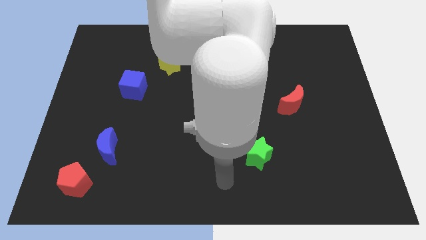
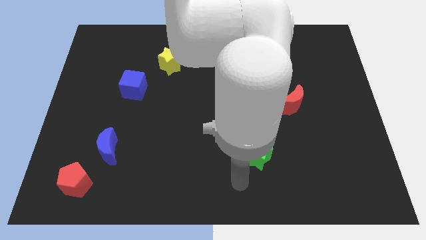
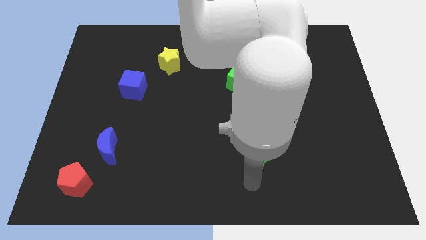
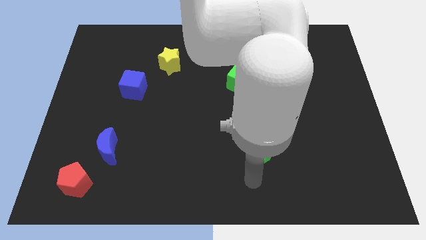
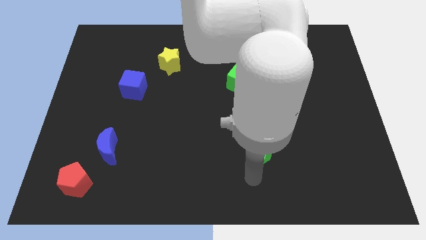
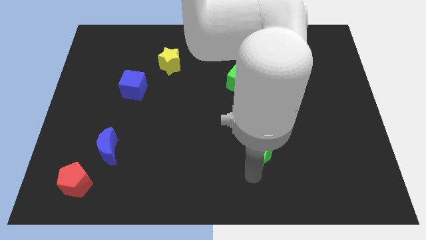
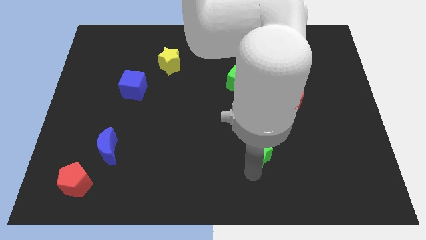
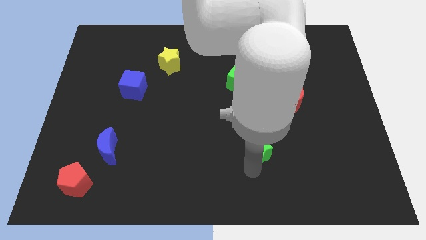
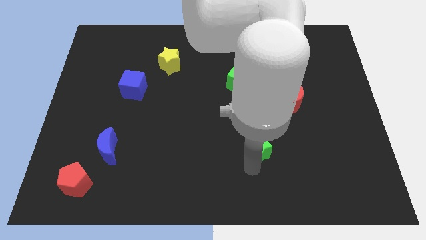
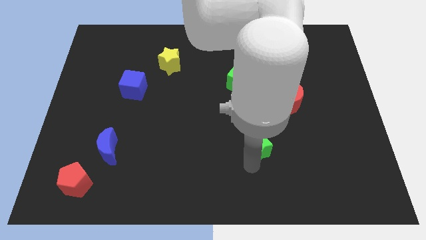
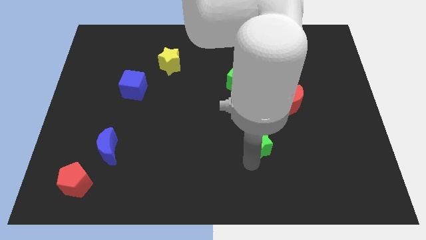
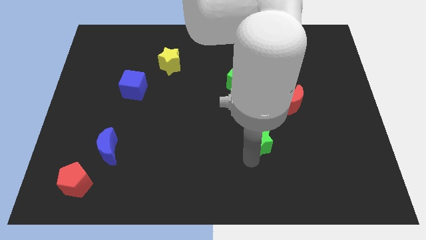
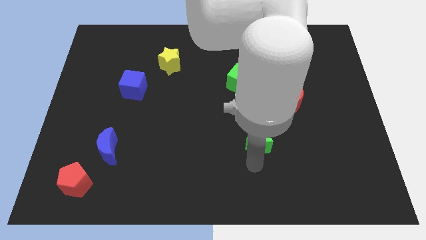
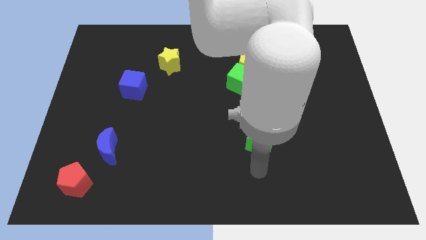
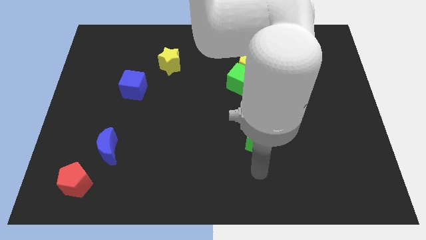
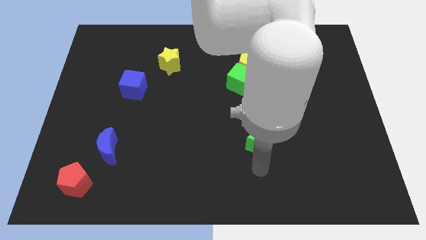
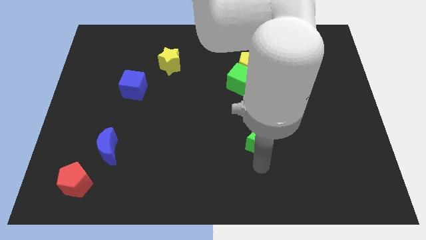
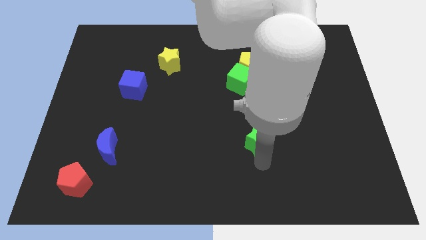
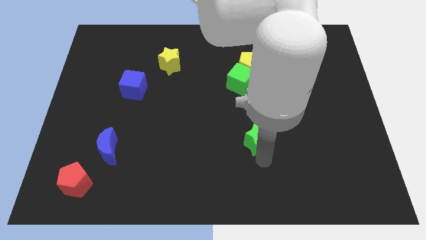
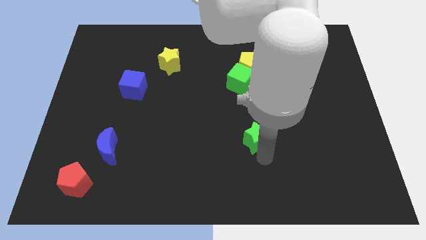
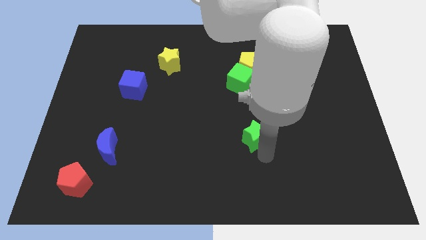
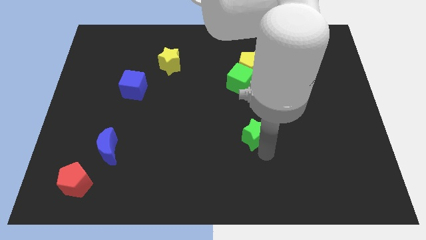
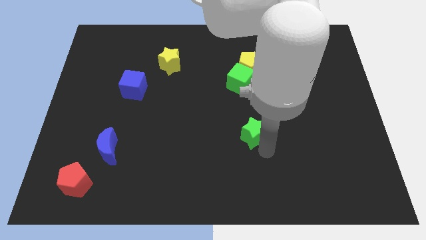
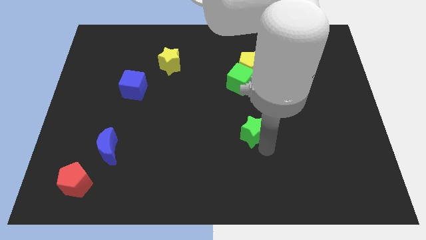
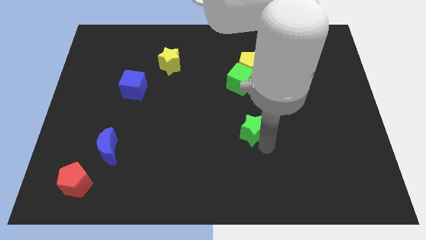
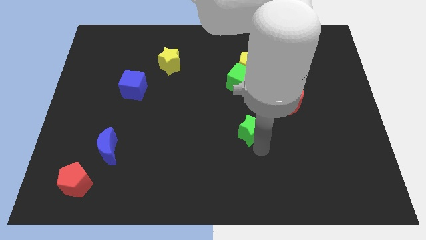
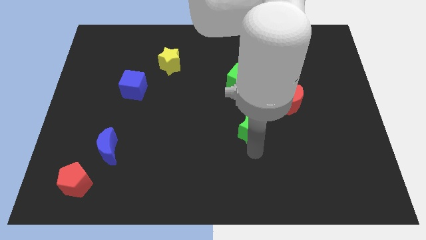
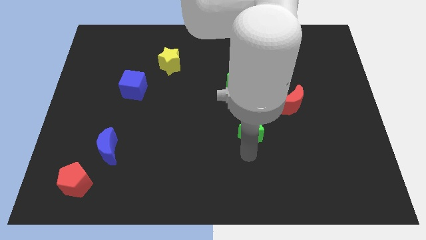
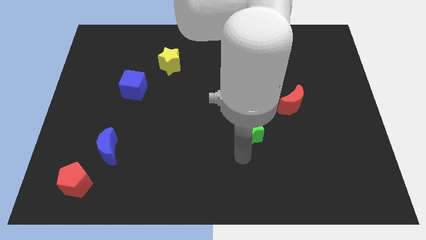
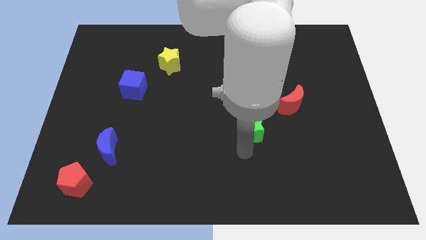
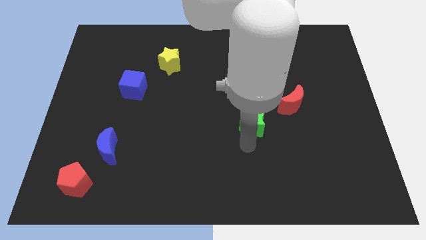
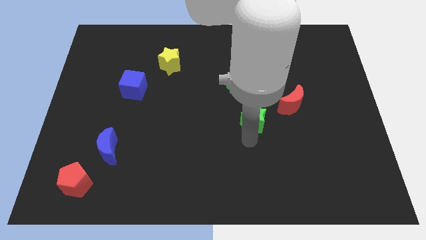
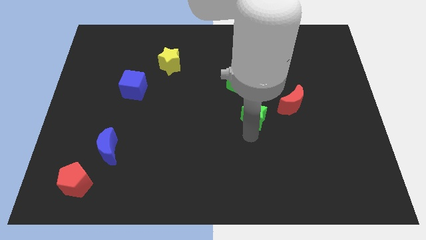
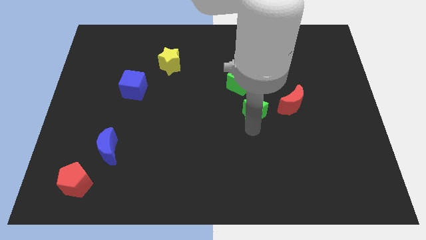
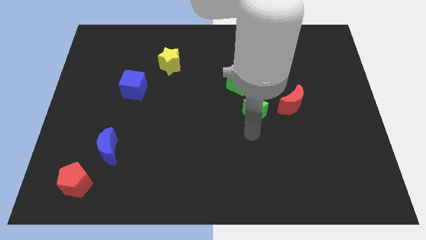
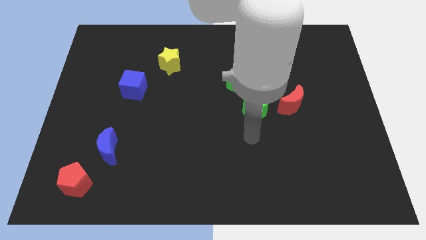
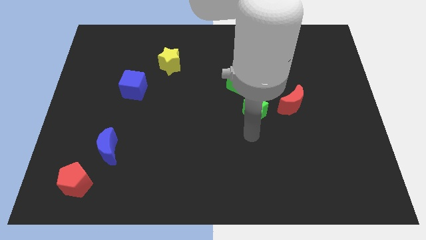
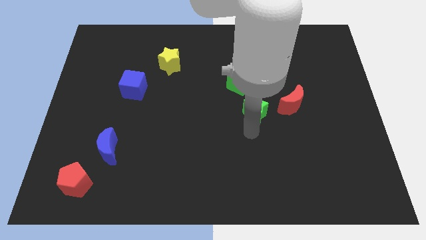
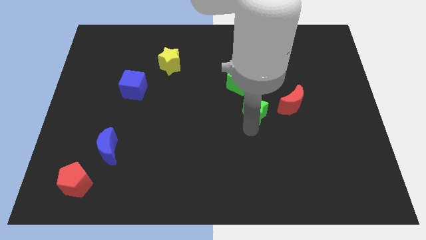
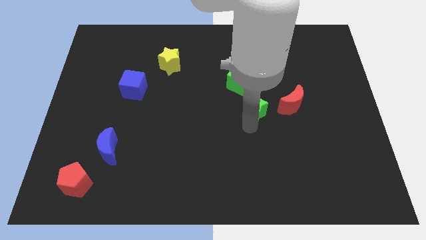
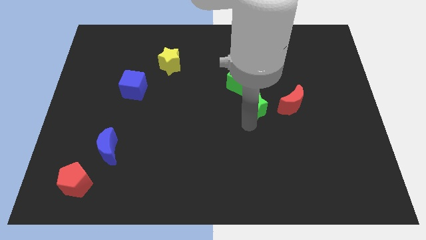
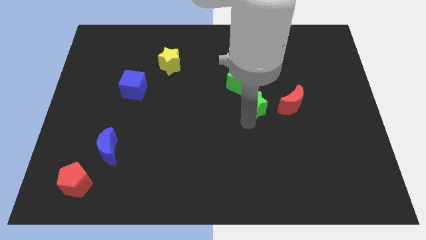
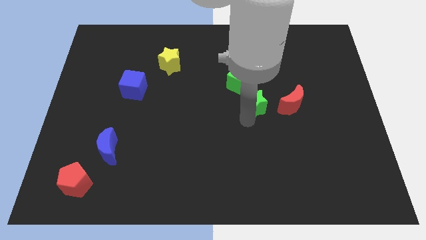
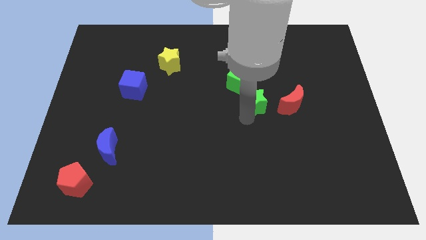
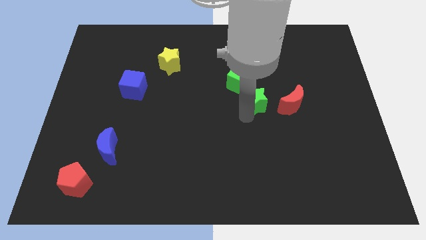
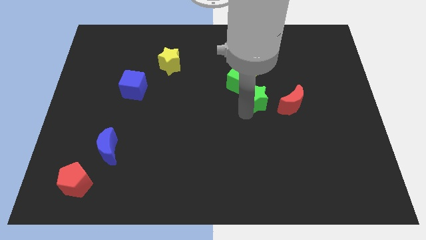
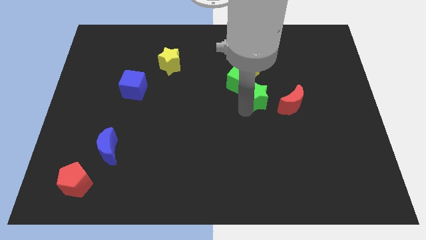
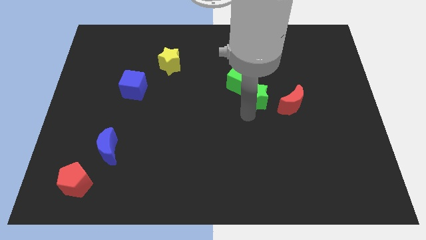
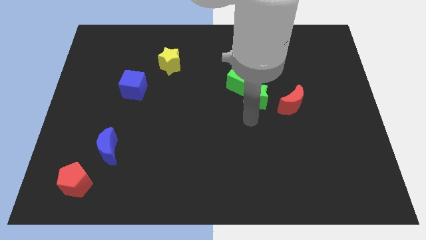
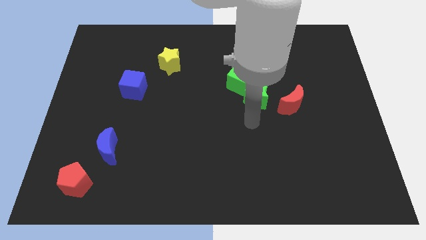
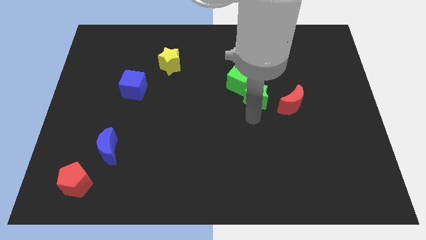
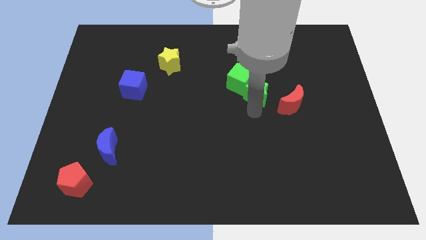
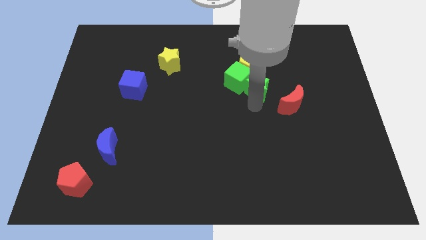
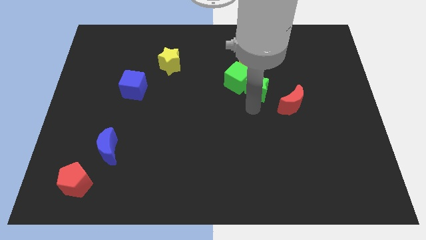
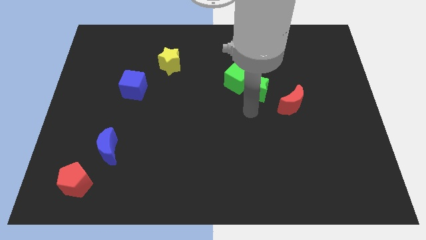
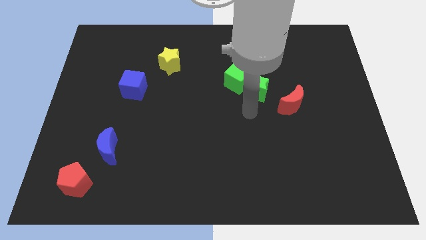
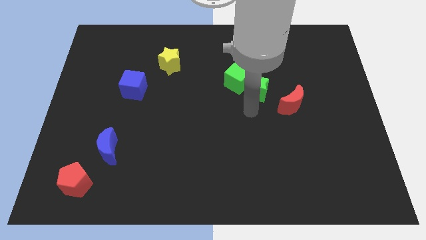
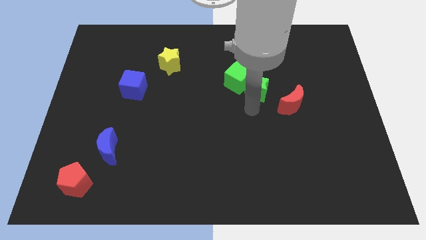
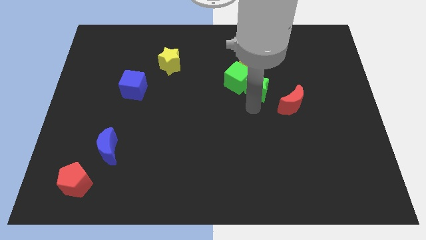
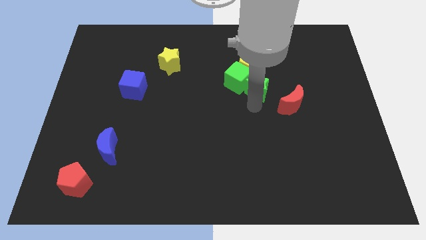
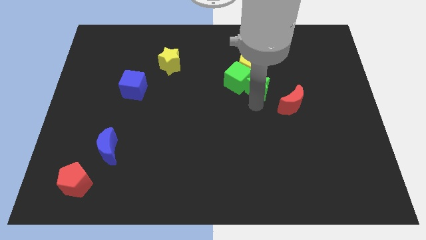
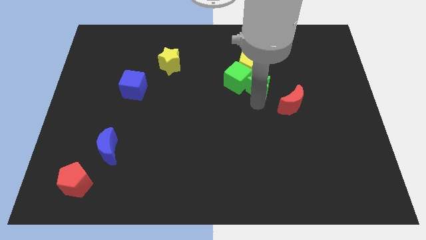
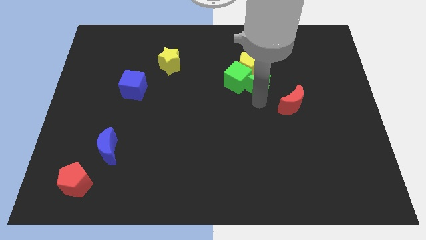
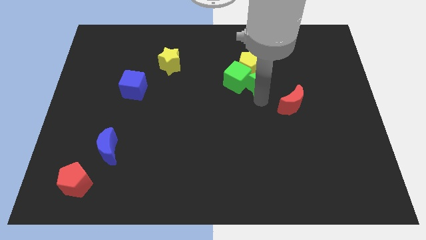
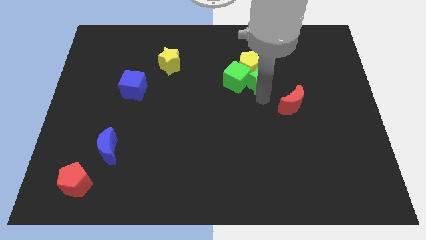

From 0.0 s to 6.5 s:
move the green star next to the yellow pentagon
